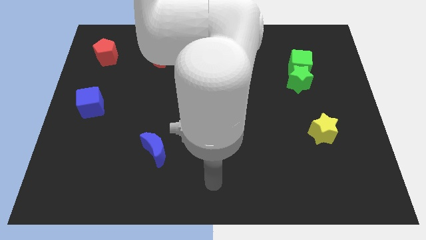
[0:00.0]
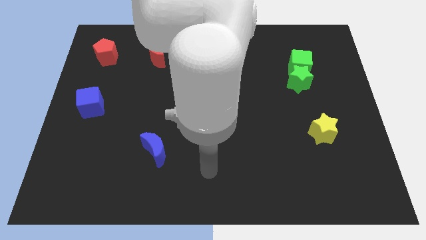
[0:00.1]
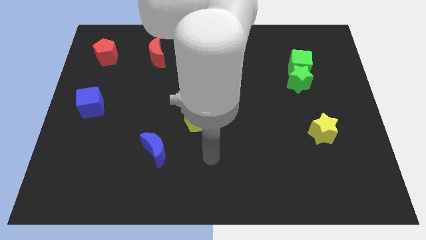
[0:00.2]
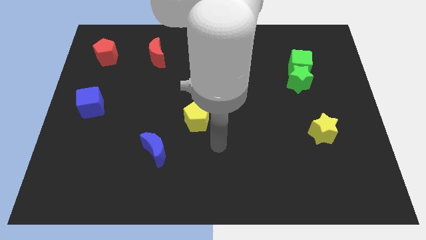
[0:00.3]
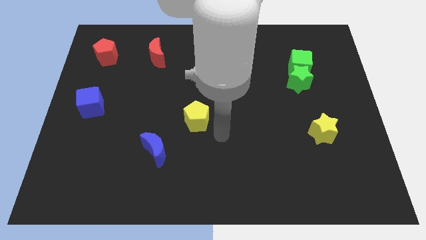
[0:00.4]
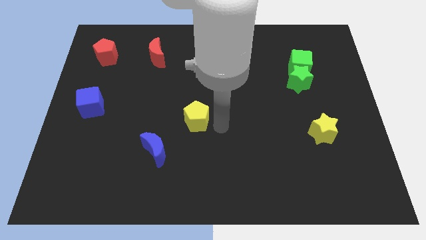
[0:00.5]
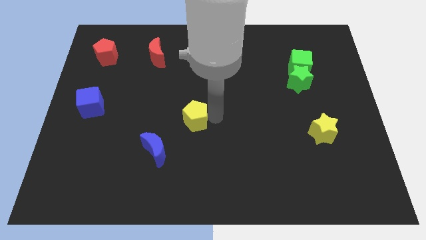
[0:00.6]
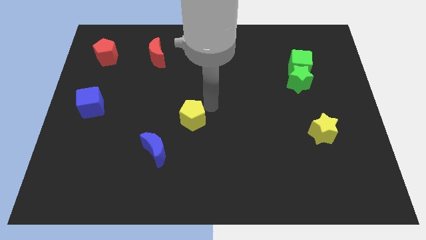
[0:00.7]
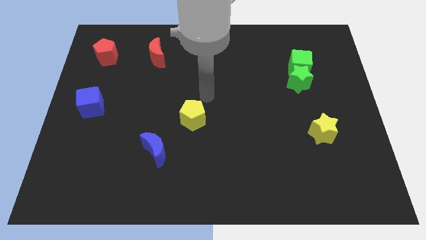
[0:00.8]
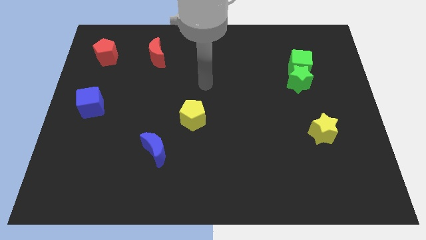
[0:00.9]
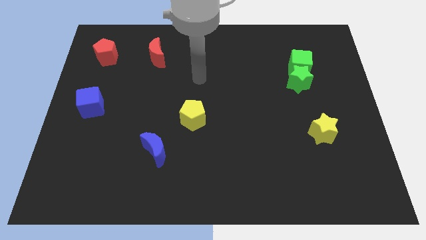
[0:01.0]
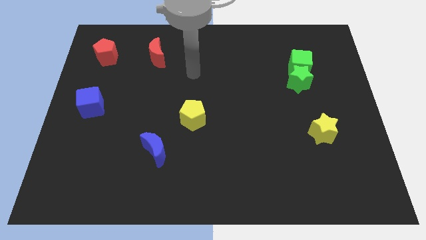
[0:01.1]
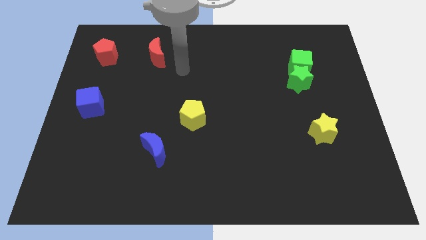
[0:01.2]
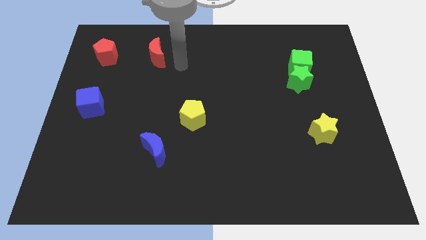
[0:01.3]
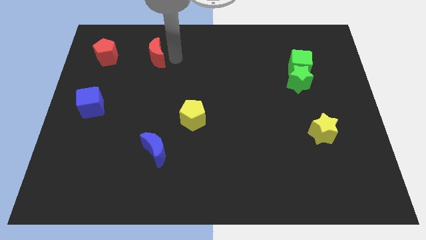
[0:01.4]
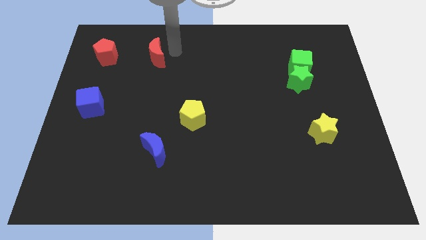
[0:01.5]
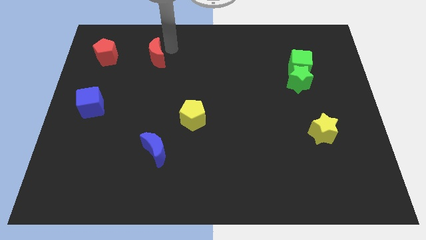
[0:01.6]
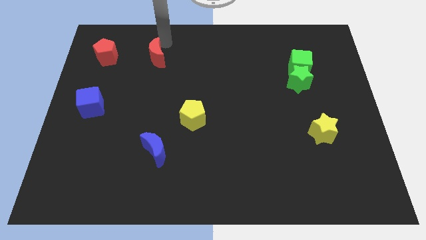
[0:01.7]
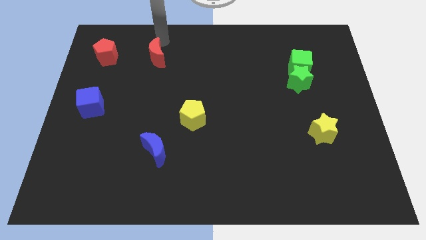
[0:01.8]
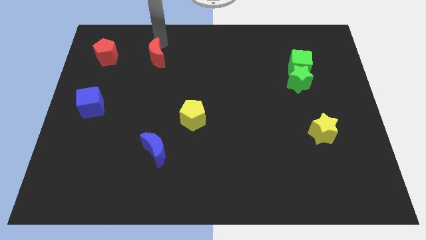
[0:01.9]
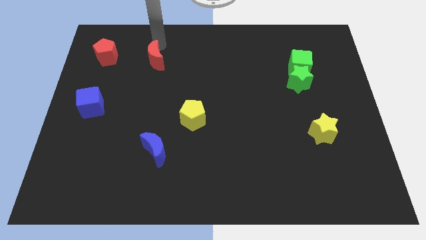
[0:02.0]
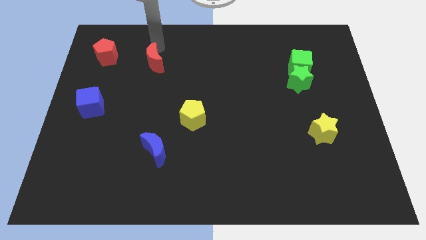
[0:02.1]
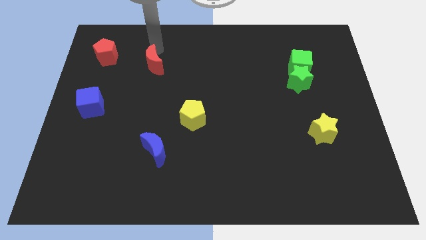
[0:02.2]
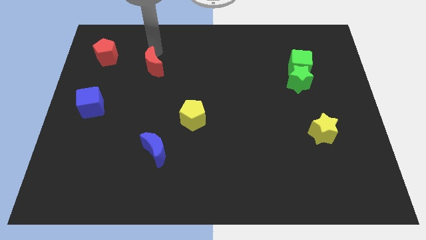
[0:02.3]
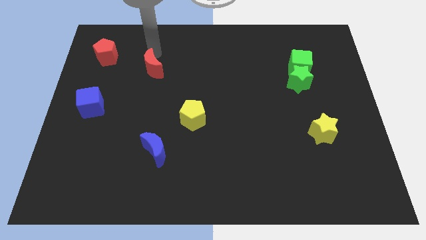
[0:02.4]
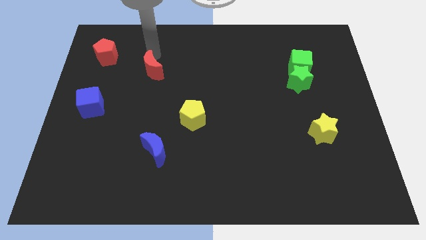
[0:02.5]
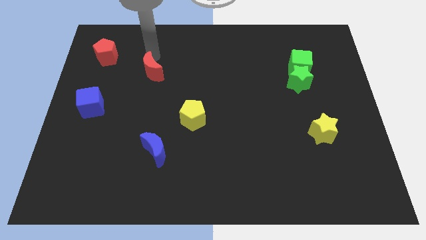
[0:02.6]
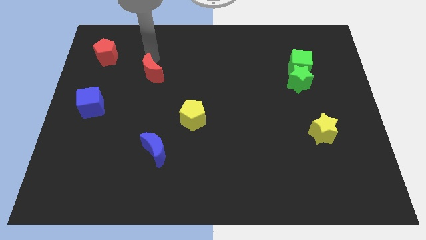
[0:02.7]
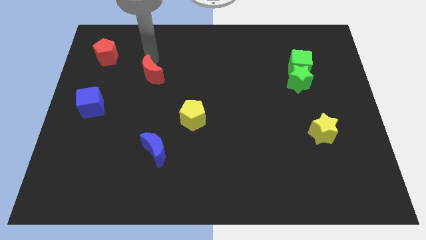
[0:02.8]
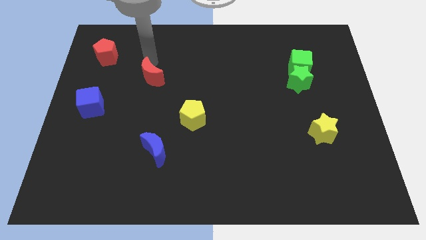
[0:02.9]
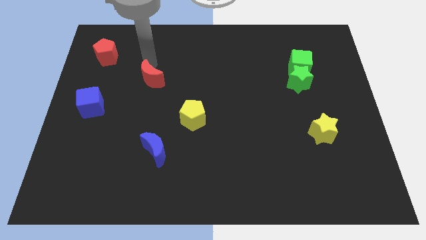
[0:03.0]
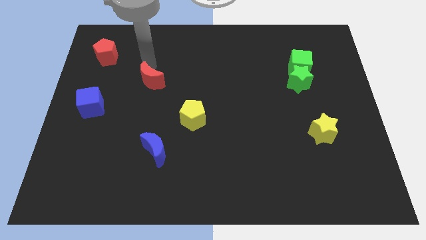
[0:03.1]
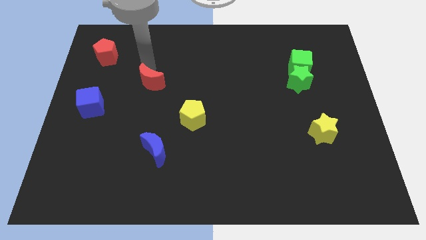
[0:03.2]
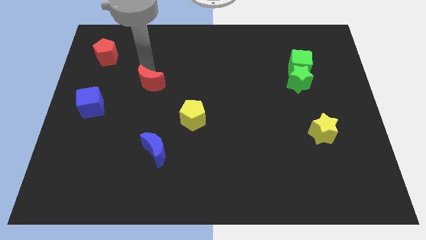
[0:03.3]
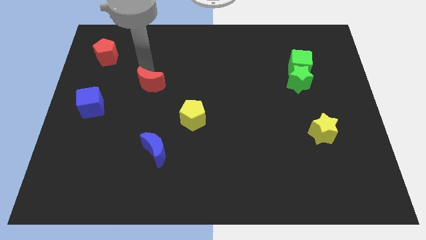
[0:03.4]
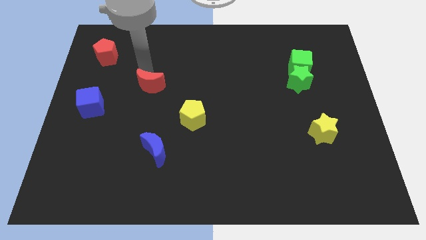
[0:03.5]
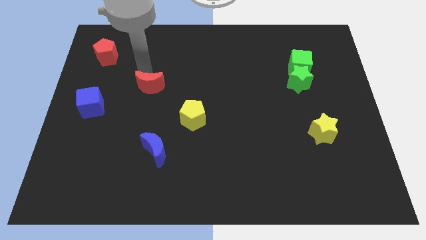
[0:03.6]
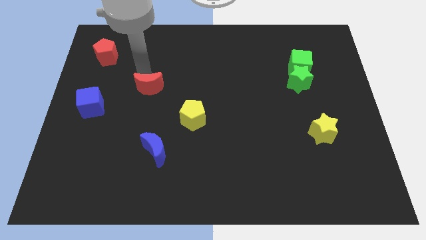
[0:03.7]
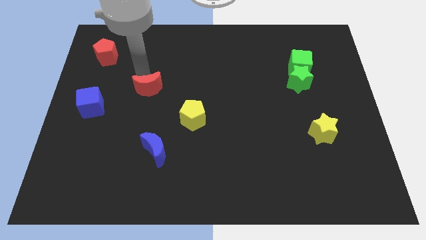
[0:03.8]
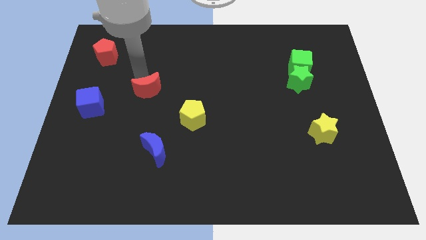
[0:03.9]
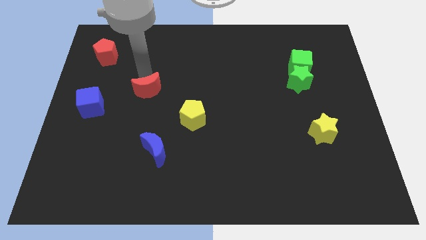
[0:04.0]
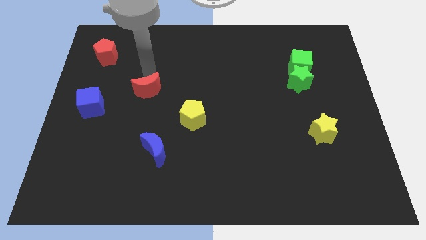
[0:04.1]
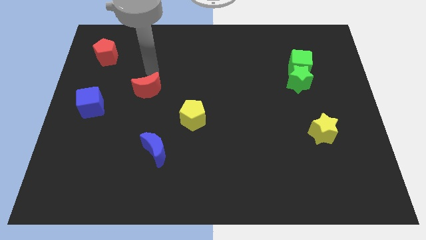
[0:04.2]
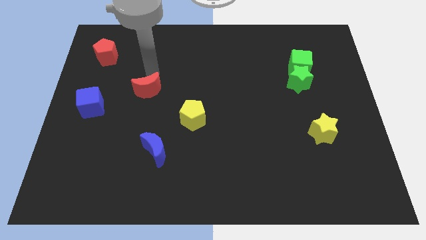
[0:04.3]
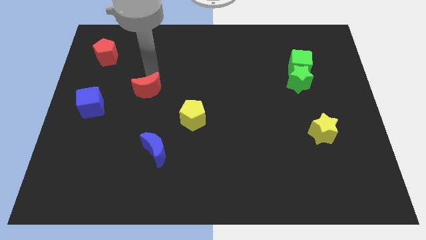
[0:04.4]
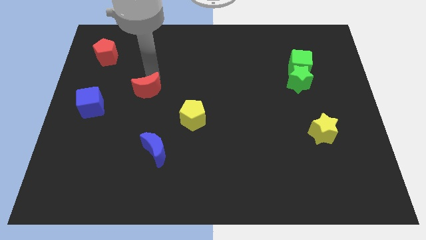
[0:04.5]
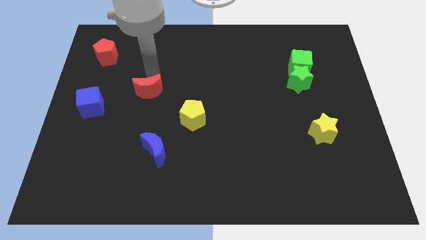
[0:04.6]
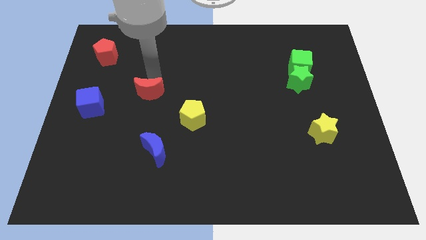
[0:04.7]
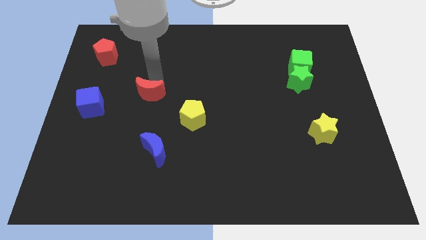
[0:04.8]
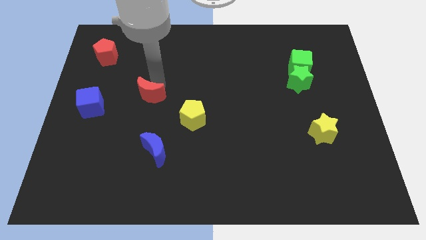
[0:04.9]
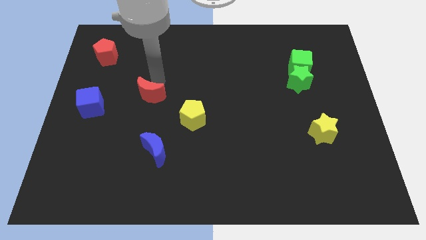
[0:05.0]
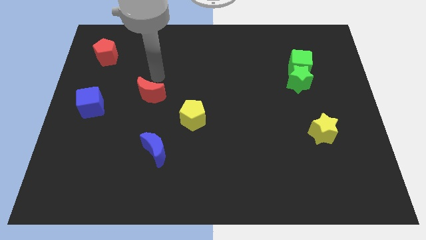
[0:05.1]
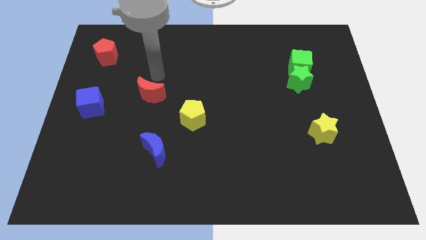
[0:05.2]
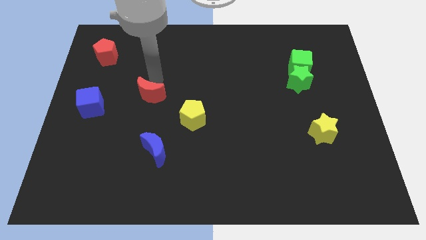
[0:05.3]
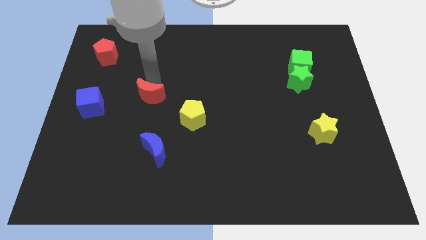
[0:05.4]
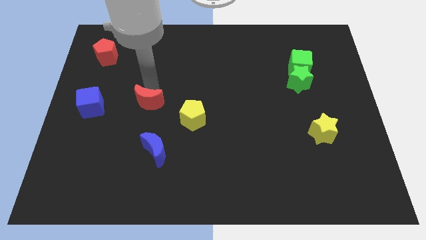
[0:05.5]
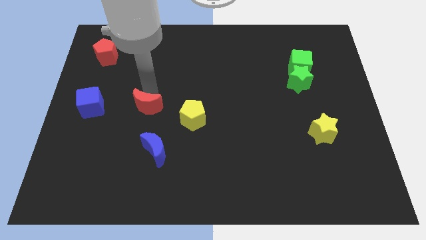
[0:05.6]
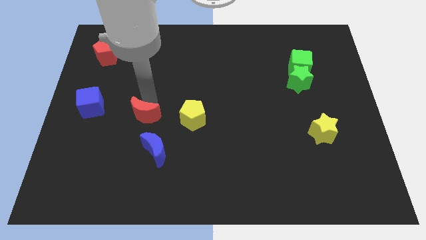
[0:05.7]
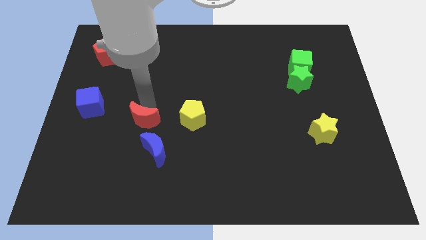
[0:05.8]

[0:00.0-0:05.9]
slide the red moon down

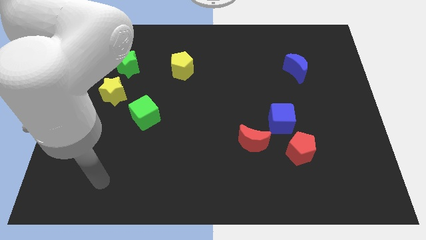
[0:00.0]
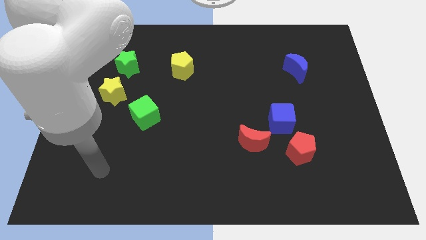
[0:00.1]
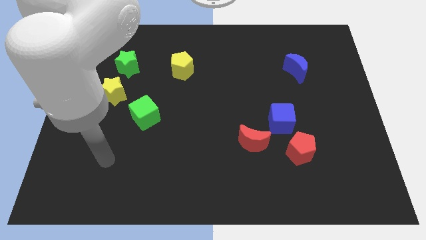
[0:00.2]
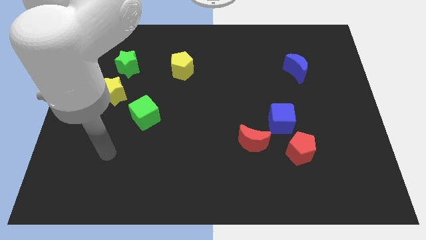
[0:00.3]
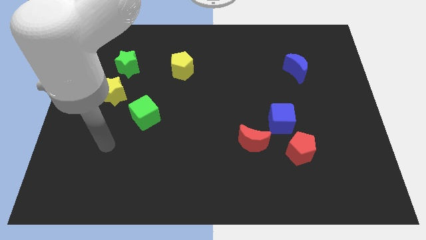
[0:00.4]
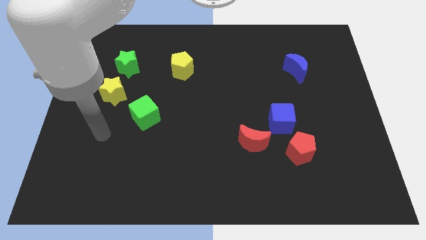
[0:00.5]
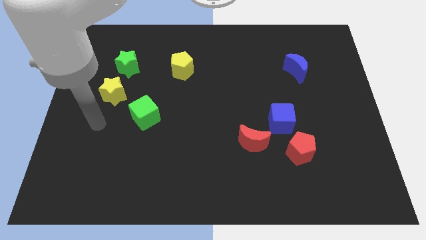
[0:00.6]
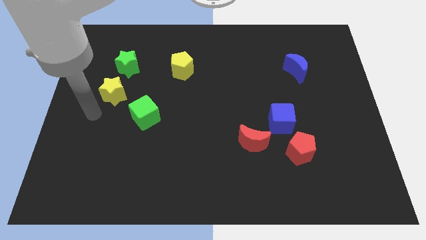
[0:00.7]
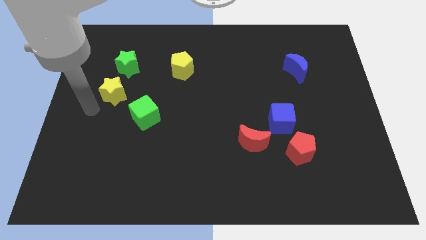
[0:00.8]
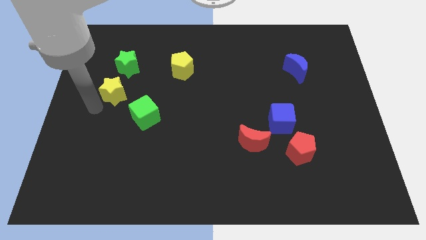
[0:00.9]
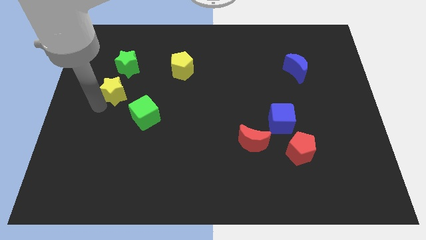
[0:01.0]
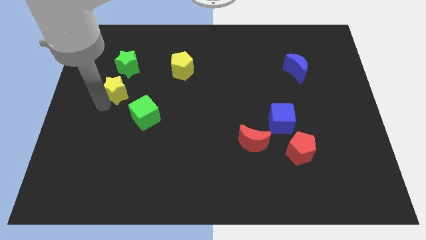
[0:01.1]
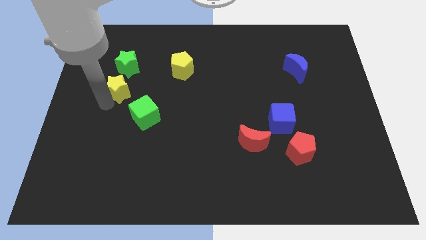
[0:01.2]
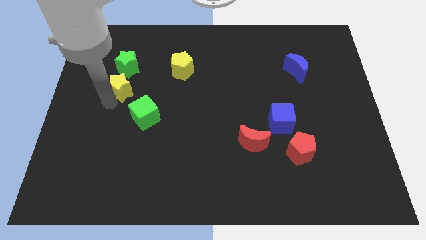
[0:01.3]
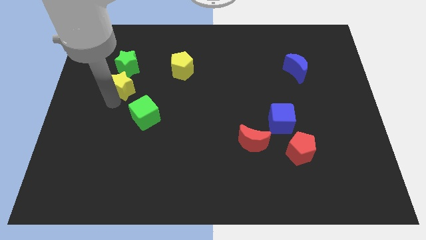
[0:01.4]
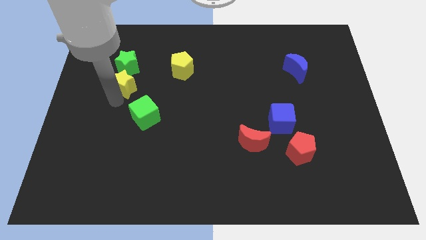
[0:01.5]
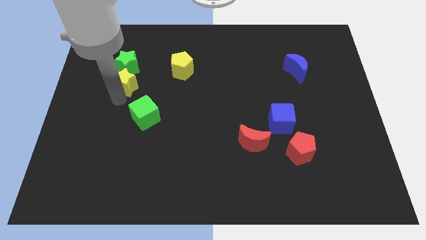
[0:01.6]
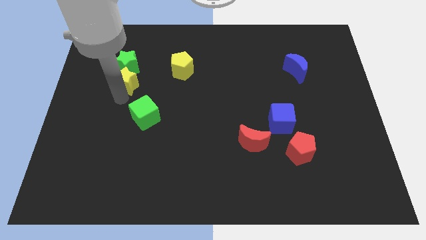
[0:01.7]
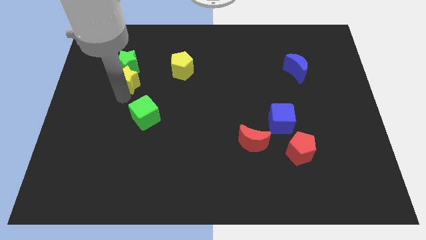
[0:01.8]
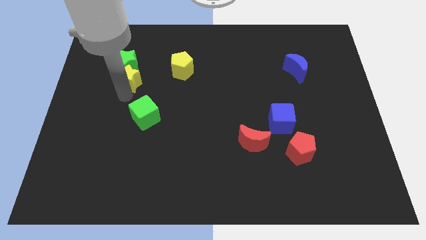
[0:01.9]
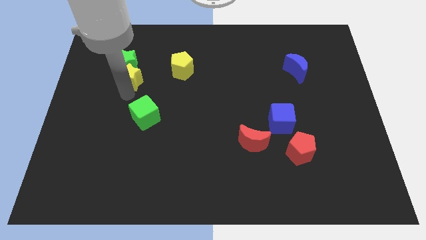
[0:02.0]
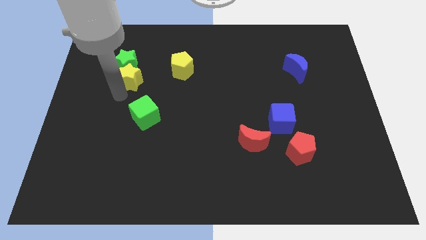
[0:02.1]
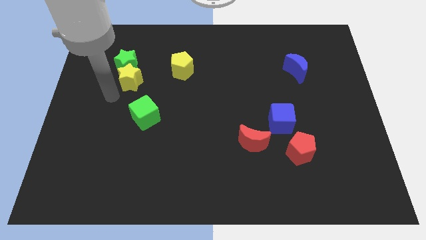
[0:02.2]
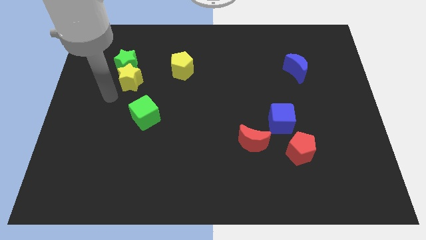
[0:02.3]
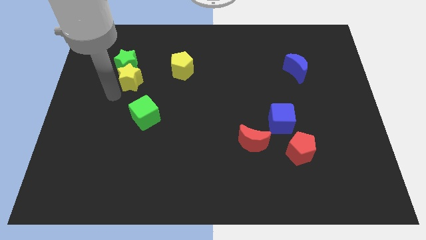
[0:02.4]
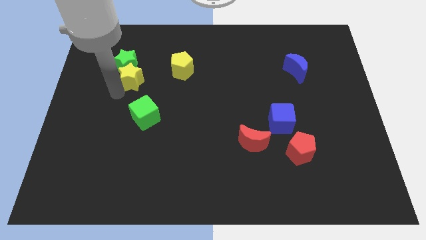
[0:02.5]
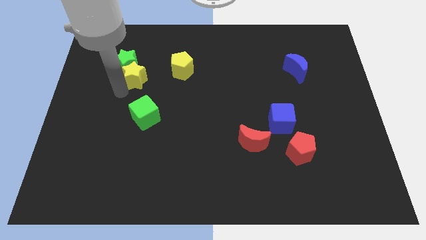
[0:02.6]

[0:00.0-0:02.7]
push the yellow star diagonally upwards and right a little

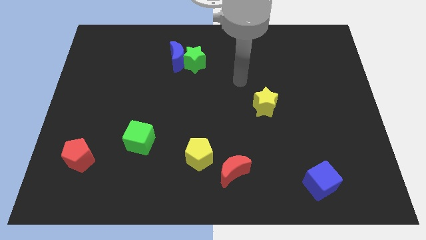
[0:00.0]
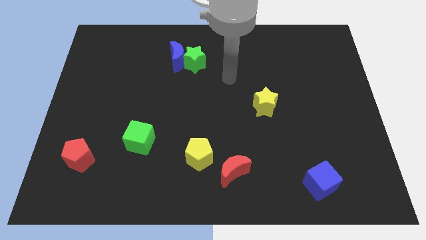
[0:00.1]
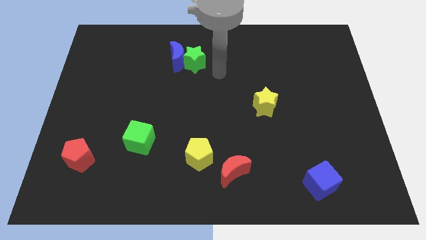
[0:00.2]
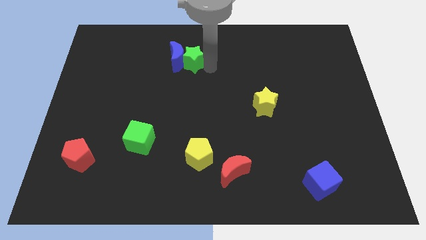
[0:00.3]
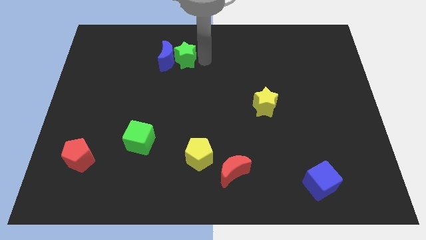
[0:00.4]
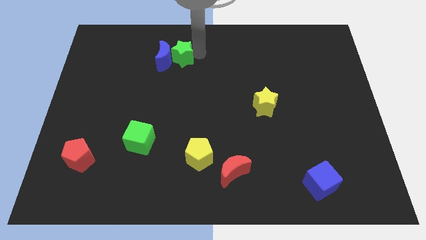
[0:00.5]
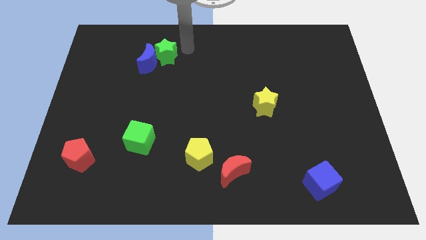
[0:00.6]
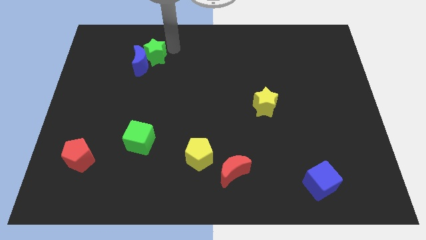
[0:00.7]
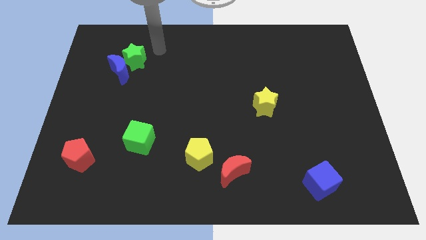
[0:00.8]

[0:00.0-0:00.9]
slide the blue moon somewhat downwards and to the left
